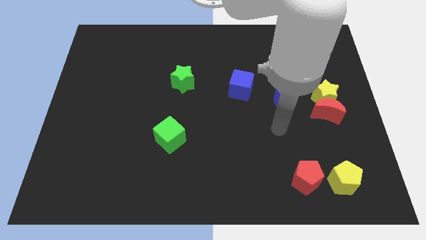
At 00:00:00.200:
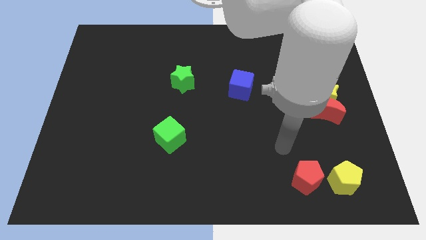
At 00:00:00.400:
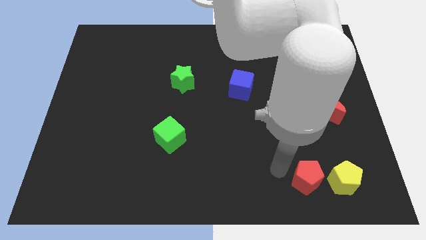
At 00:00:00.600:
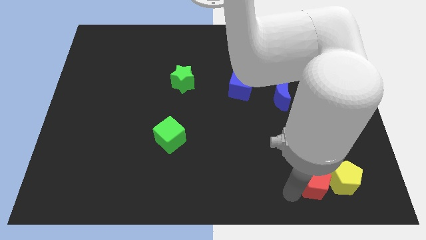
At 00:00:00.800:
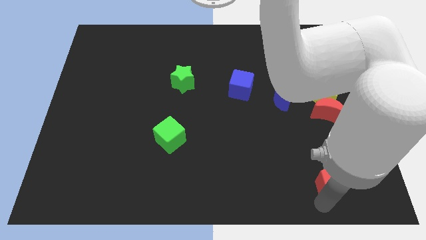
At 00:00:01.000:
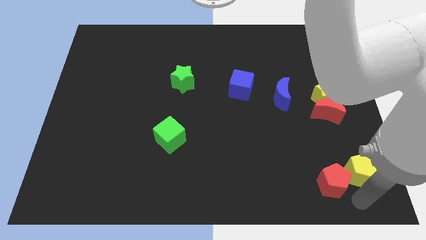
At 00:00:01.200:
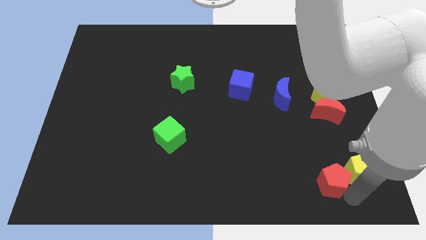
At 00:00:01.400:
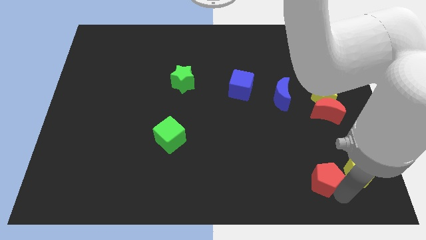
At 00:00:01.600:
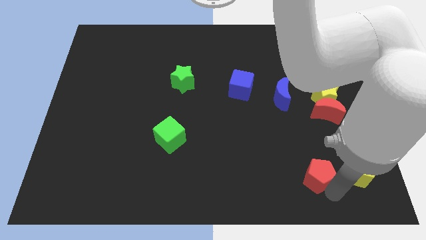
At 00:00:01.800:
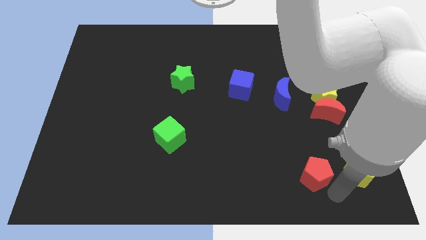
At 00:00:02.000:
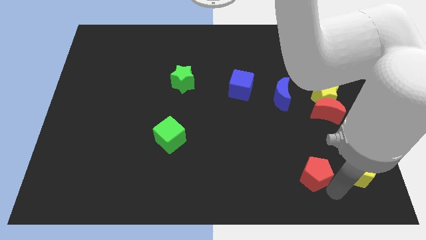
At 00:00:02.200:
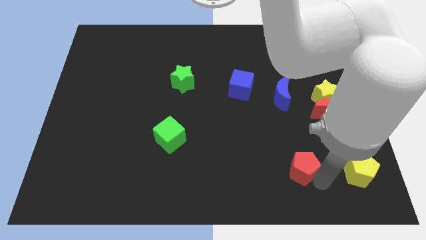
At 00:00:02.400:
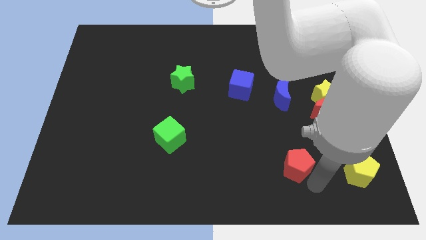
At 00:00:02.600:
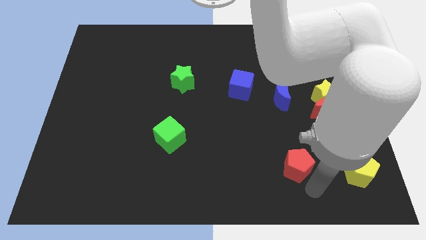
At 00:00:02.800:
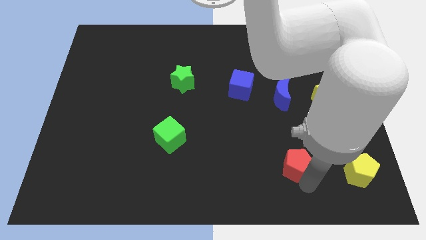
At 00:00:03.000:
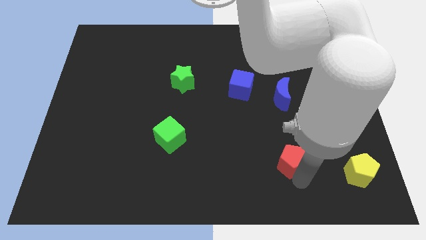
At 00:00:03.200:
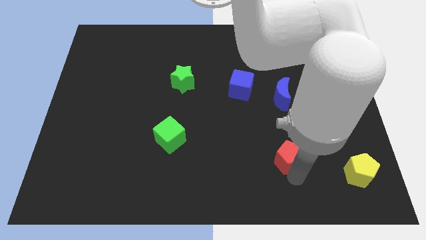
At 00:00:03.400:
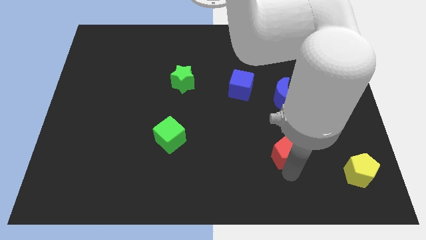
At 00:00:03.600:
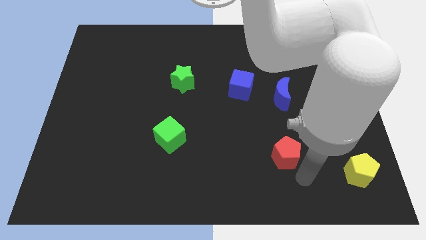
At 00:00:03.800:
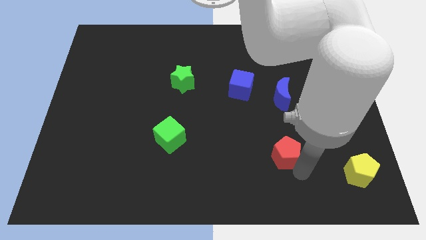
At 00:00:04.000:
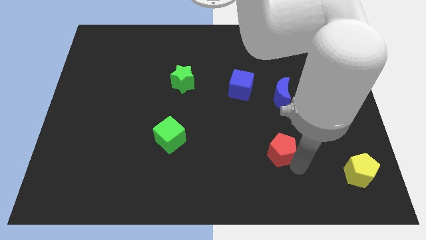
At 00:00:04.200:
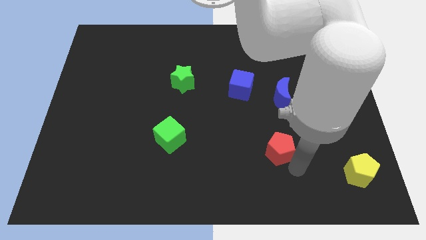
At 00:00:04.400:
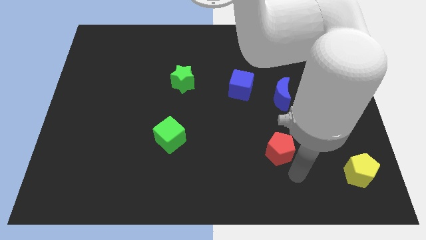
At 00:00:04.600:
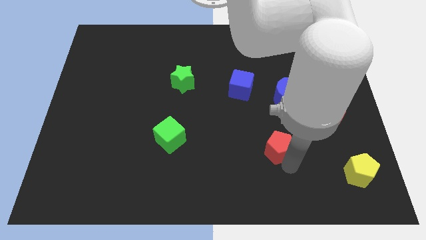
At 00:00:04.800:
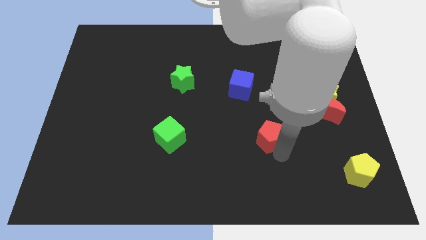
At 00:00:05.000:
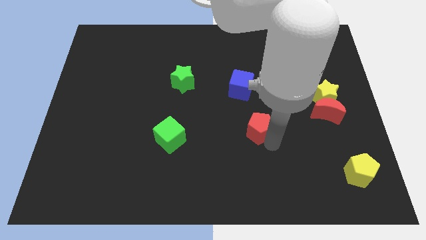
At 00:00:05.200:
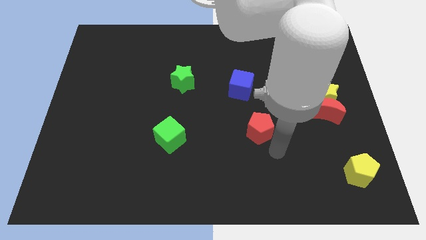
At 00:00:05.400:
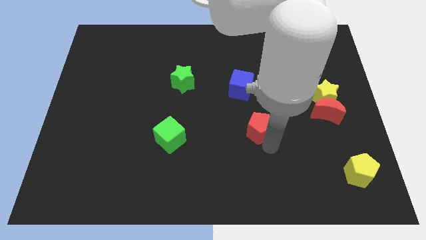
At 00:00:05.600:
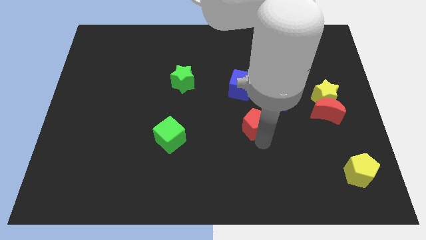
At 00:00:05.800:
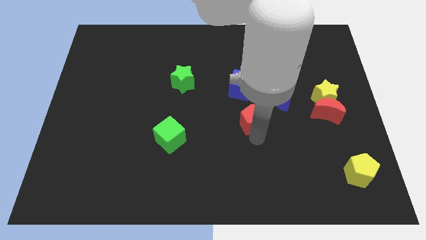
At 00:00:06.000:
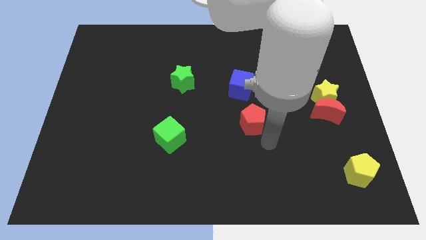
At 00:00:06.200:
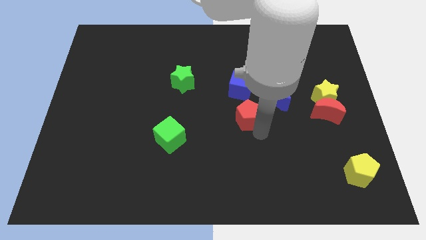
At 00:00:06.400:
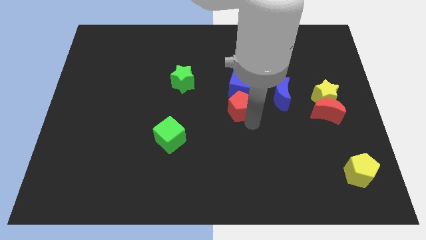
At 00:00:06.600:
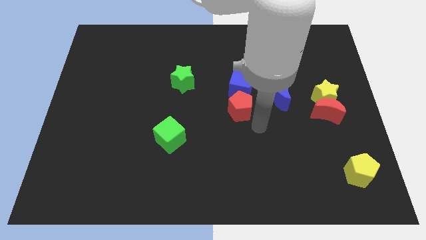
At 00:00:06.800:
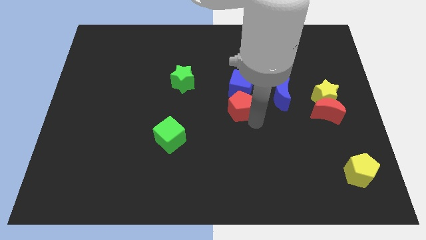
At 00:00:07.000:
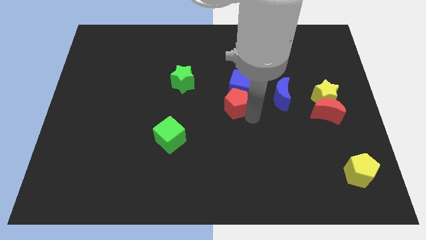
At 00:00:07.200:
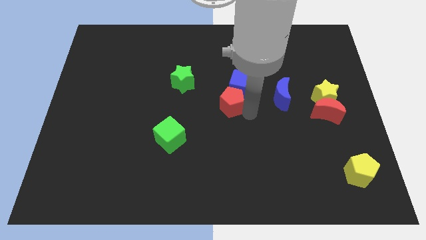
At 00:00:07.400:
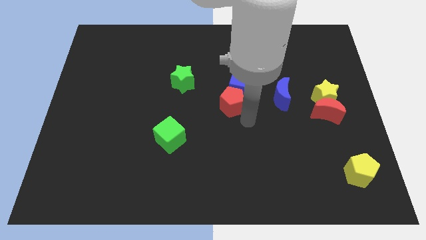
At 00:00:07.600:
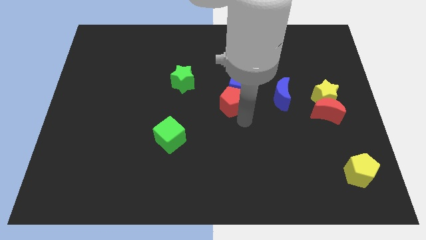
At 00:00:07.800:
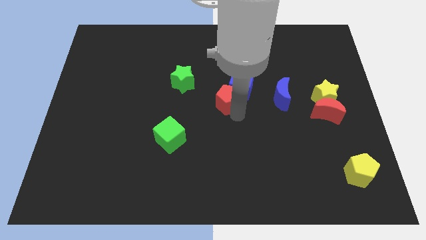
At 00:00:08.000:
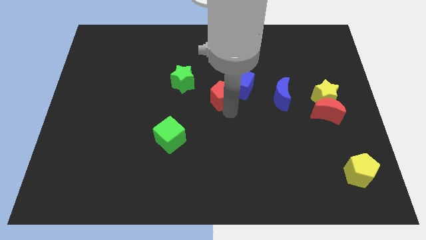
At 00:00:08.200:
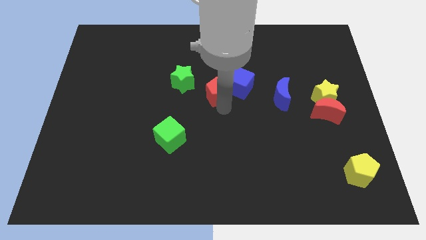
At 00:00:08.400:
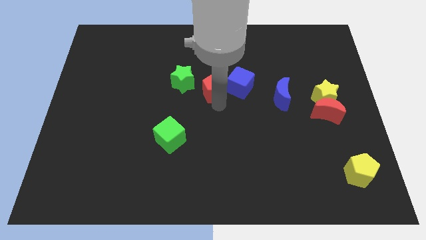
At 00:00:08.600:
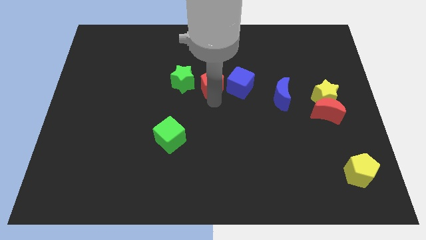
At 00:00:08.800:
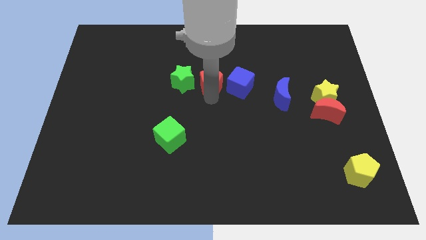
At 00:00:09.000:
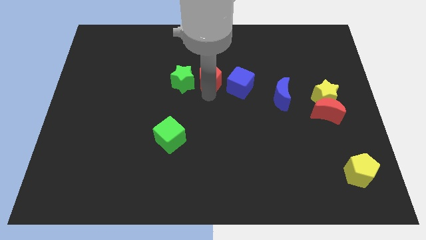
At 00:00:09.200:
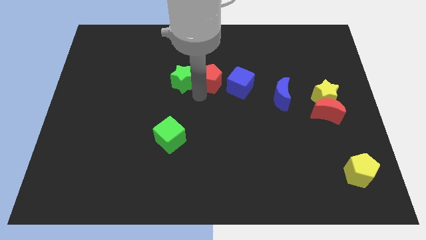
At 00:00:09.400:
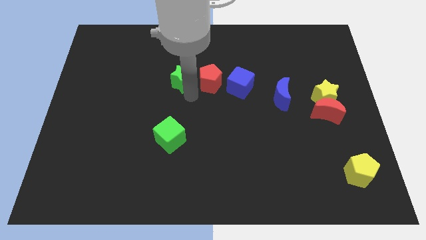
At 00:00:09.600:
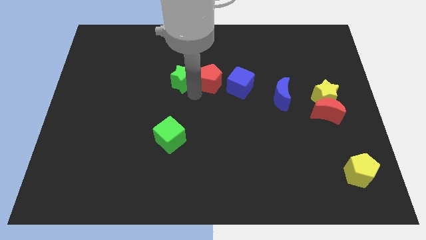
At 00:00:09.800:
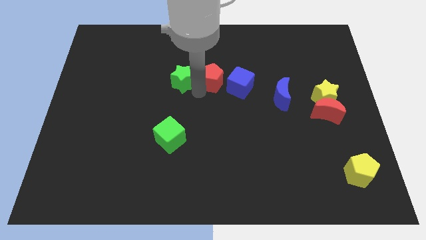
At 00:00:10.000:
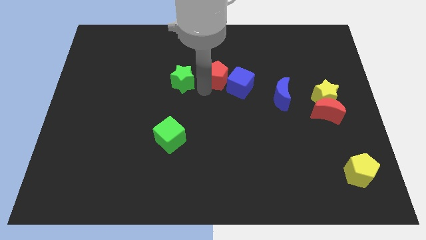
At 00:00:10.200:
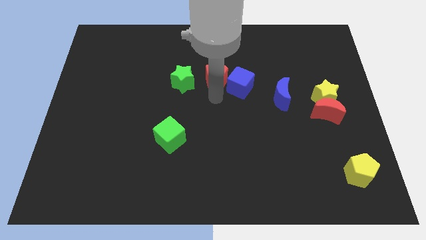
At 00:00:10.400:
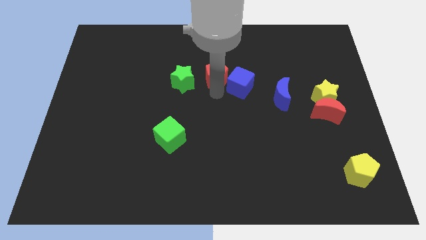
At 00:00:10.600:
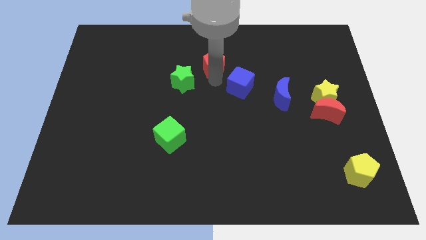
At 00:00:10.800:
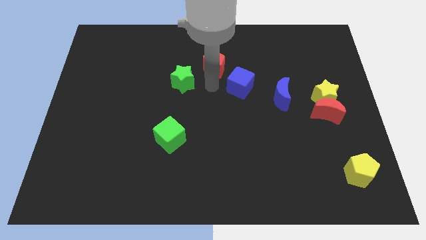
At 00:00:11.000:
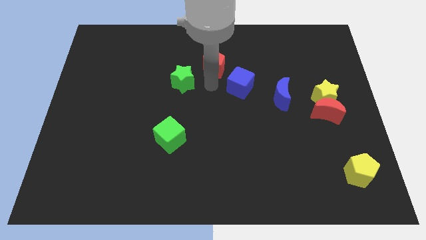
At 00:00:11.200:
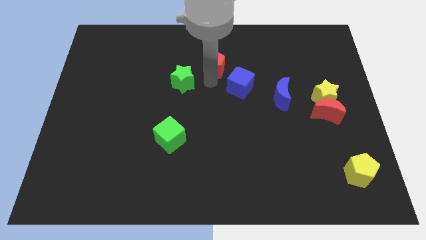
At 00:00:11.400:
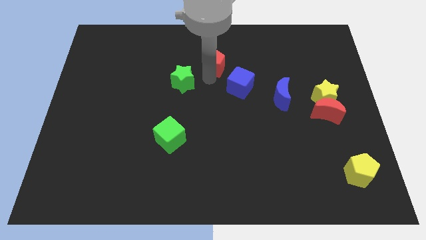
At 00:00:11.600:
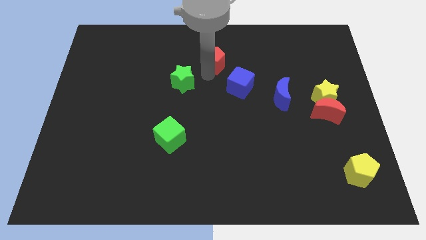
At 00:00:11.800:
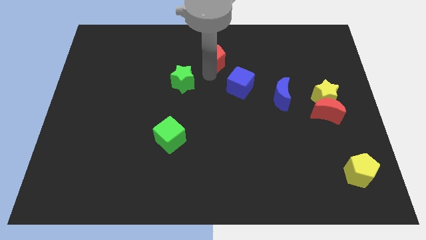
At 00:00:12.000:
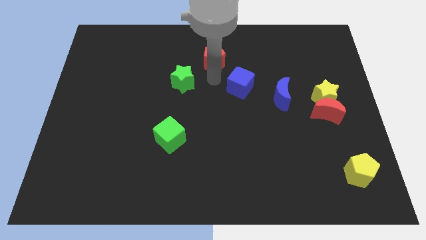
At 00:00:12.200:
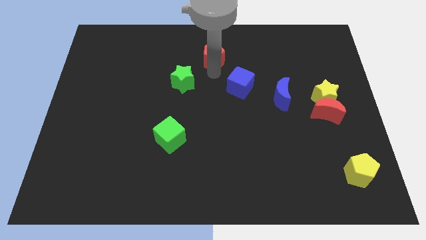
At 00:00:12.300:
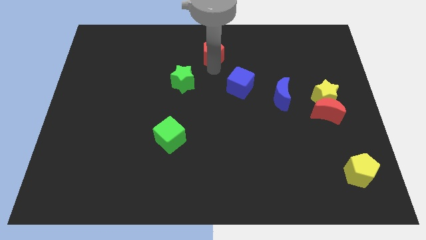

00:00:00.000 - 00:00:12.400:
push the red pentagon to the top side
